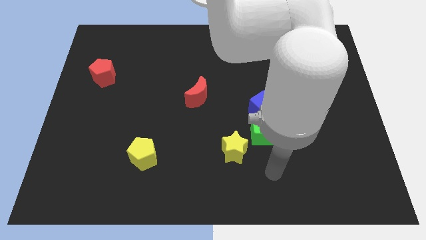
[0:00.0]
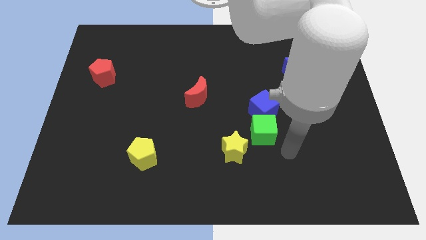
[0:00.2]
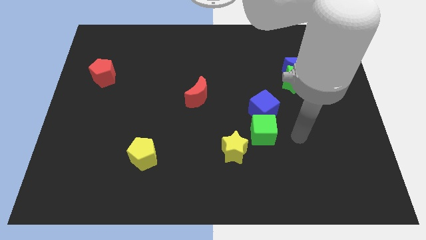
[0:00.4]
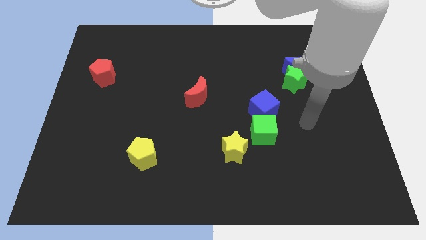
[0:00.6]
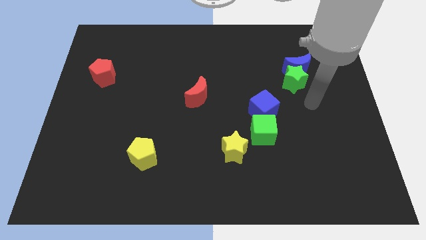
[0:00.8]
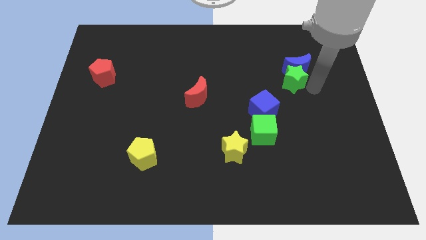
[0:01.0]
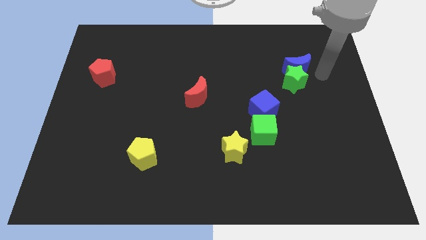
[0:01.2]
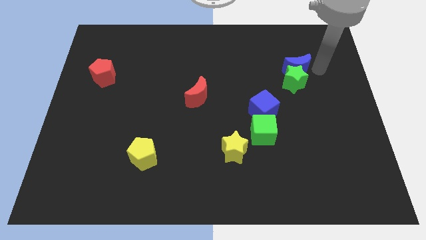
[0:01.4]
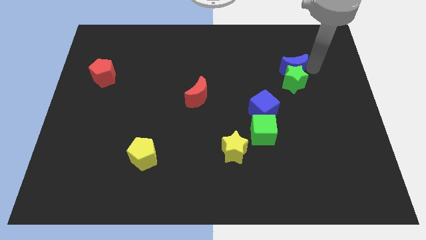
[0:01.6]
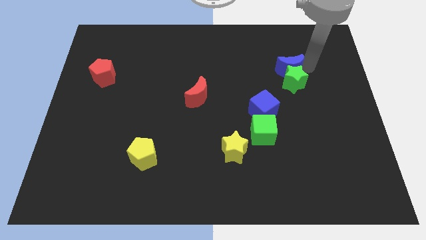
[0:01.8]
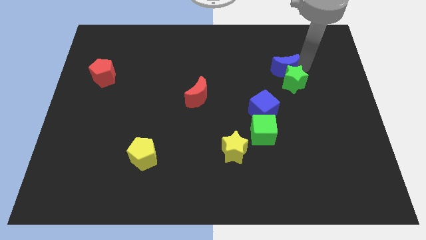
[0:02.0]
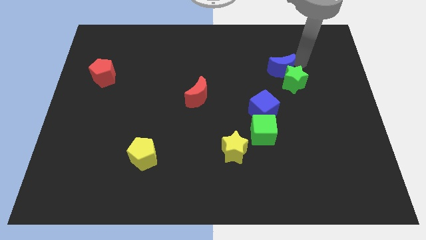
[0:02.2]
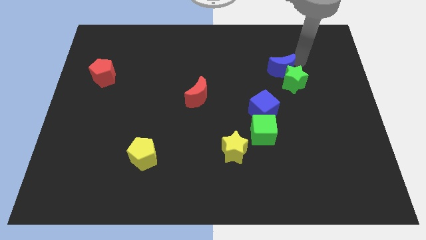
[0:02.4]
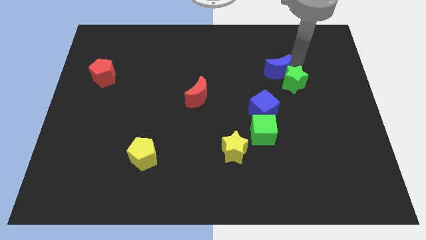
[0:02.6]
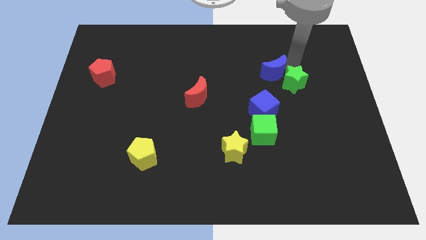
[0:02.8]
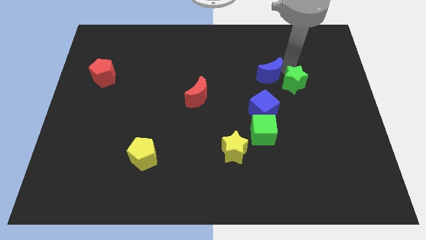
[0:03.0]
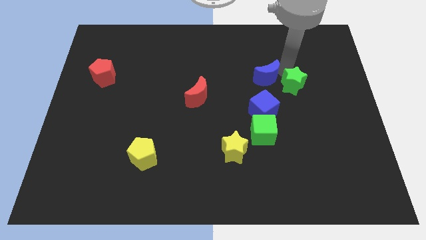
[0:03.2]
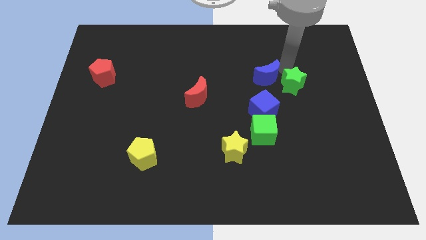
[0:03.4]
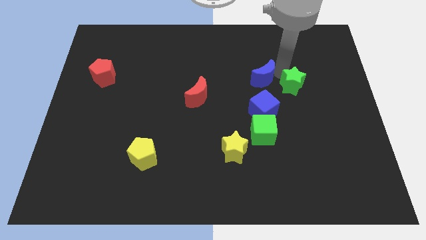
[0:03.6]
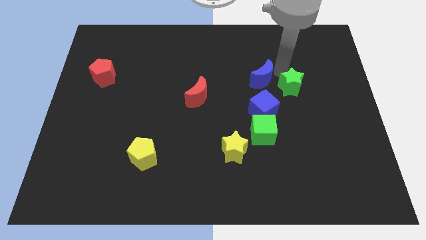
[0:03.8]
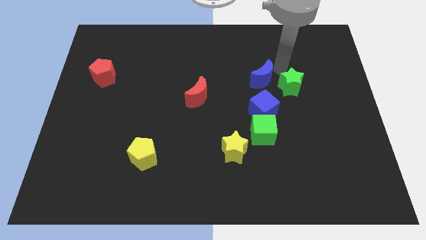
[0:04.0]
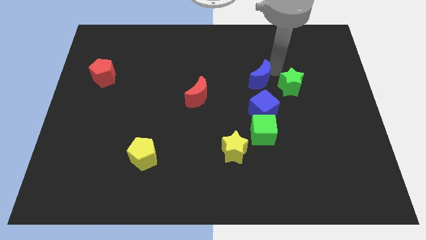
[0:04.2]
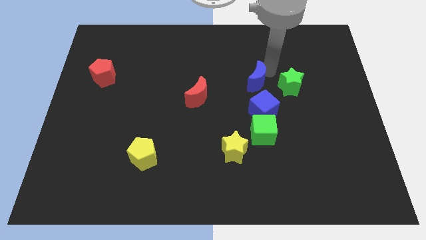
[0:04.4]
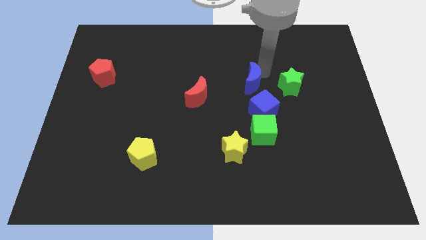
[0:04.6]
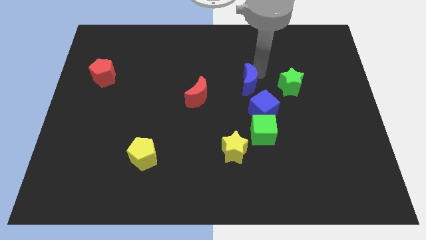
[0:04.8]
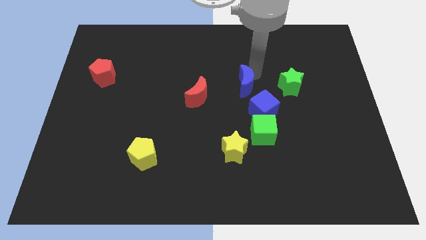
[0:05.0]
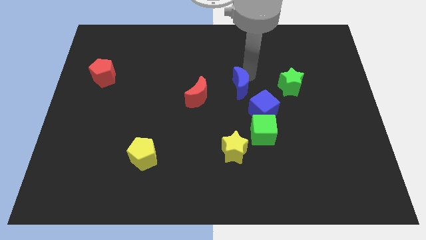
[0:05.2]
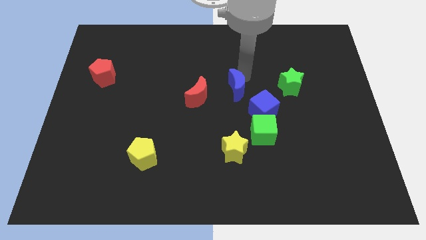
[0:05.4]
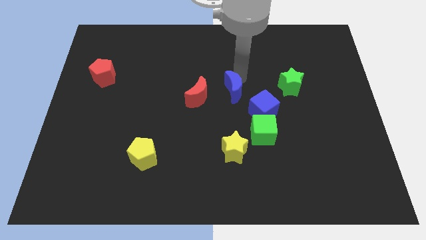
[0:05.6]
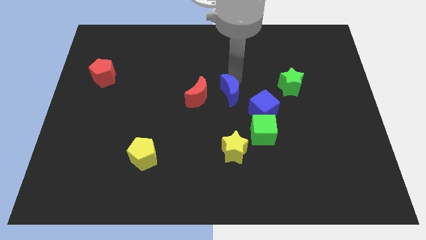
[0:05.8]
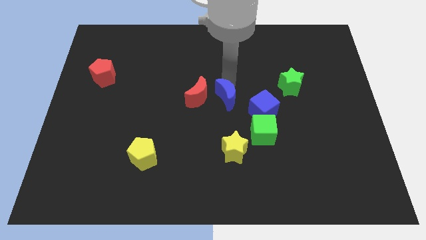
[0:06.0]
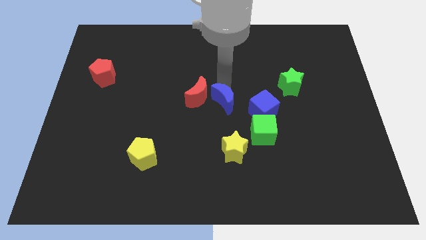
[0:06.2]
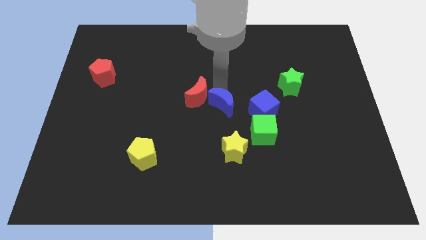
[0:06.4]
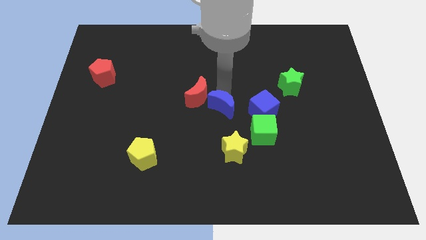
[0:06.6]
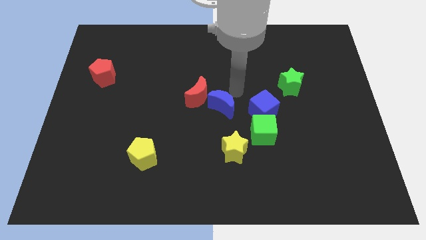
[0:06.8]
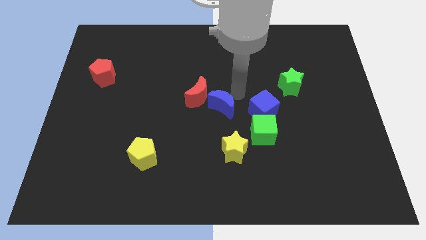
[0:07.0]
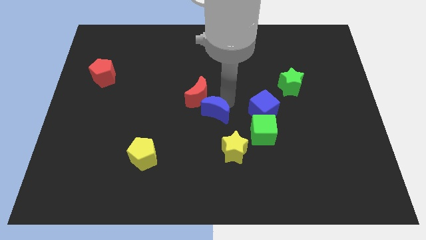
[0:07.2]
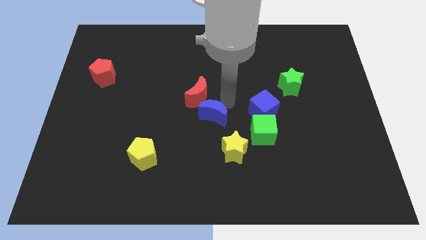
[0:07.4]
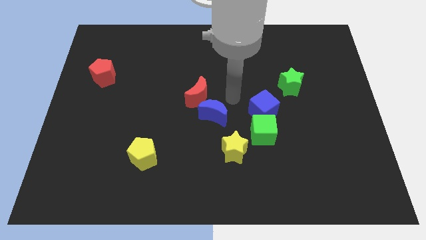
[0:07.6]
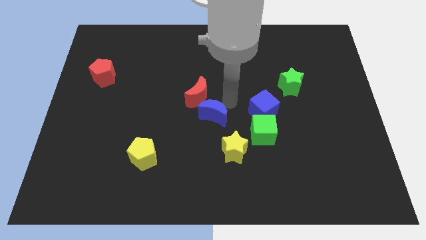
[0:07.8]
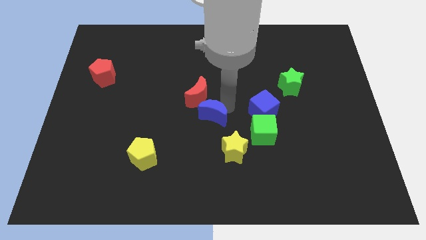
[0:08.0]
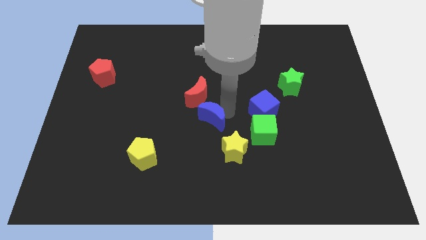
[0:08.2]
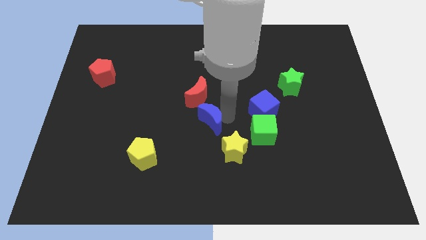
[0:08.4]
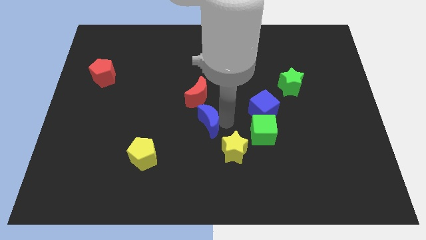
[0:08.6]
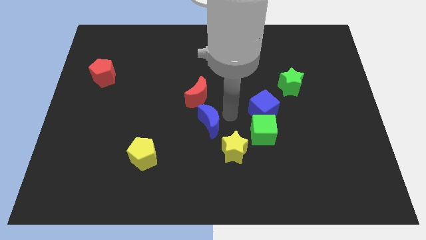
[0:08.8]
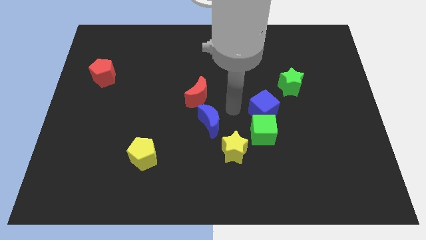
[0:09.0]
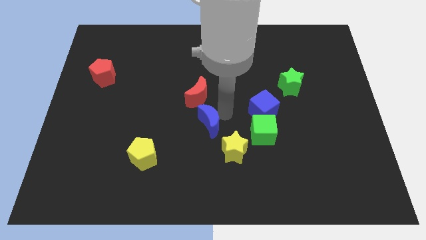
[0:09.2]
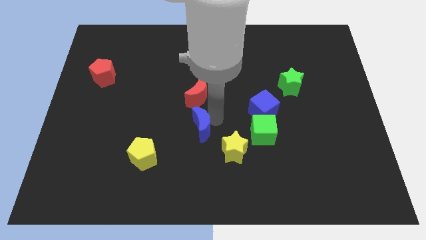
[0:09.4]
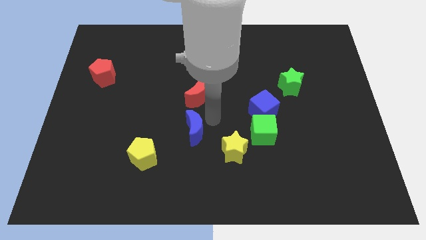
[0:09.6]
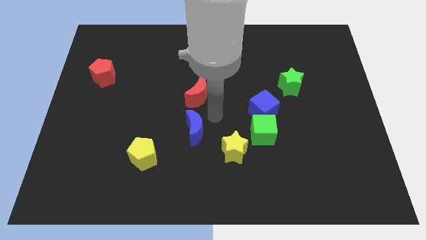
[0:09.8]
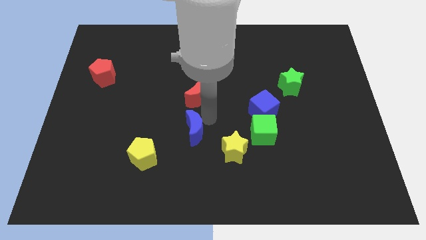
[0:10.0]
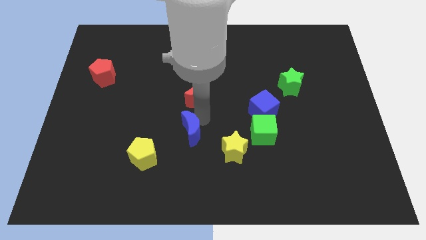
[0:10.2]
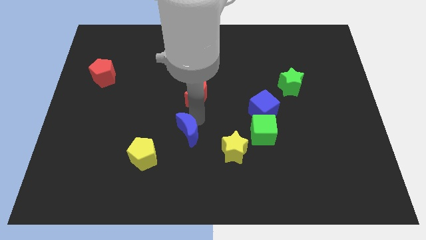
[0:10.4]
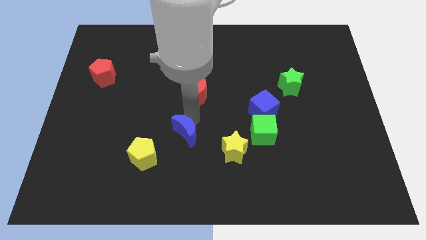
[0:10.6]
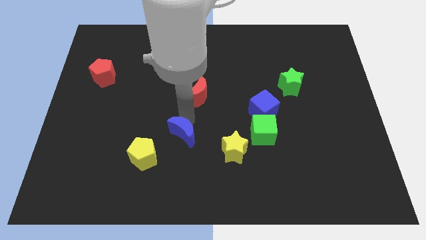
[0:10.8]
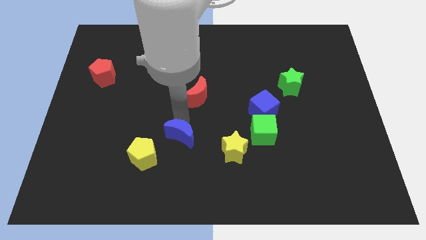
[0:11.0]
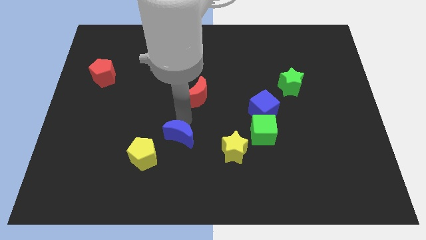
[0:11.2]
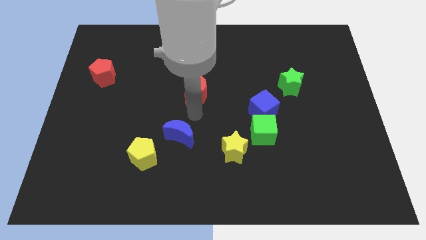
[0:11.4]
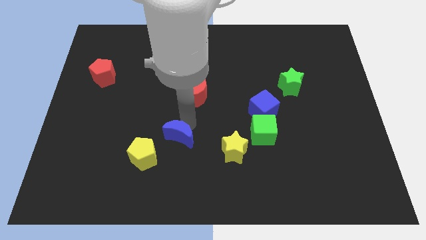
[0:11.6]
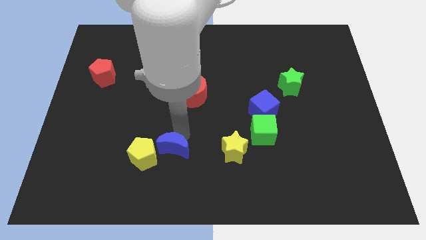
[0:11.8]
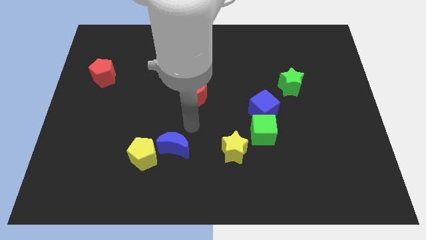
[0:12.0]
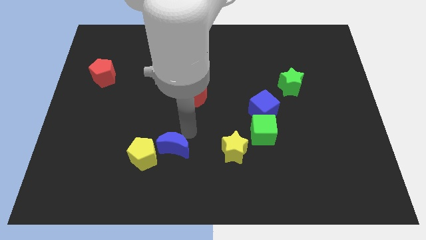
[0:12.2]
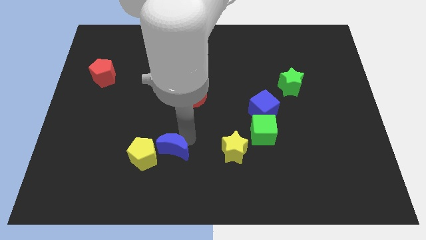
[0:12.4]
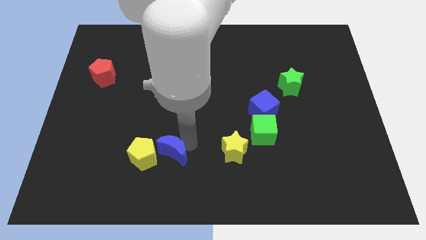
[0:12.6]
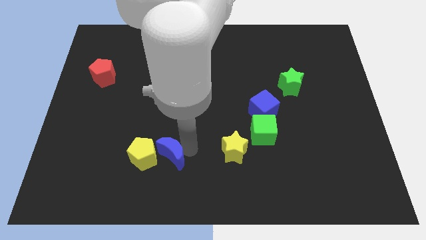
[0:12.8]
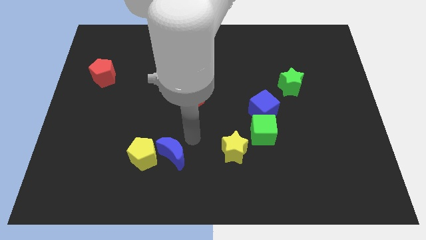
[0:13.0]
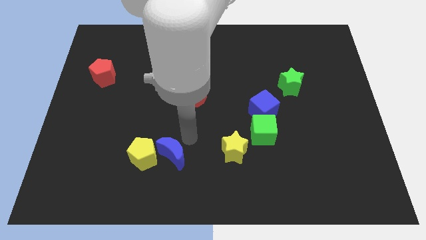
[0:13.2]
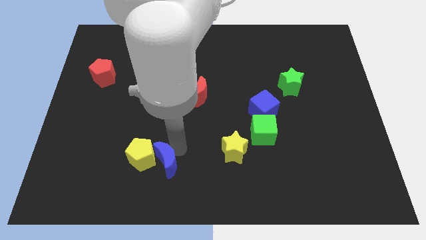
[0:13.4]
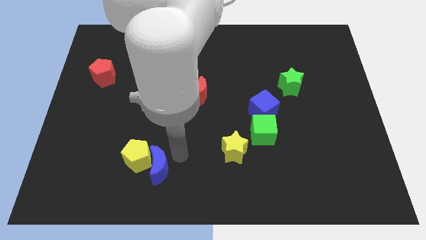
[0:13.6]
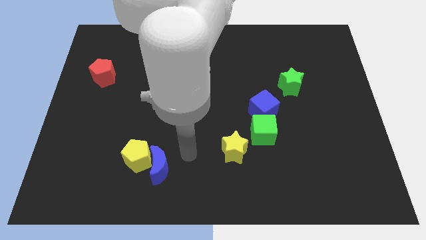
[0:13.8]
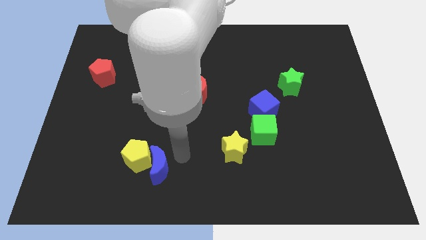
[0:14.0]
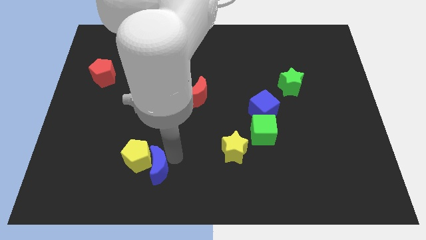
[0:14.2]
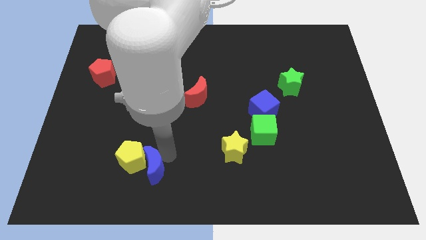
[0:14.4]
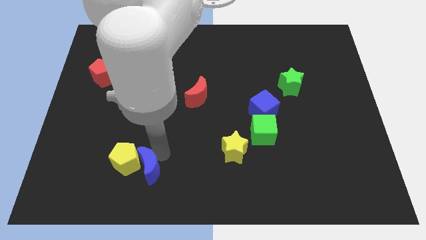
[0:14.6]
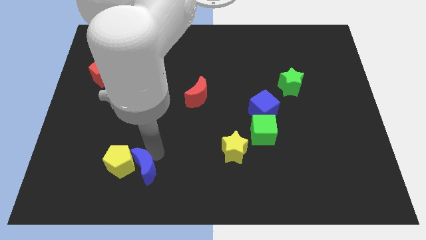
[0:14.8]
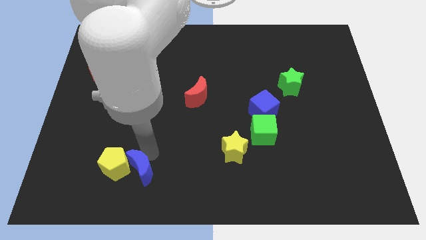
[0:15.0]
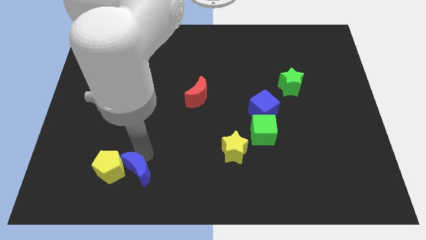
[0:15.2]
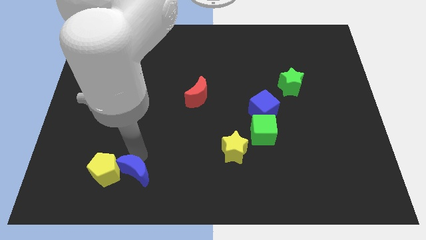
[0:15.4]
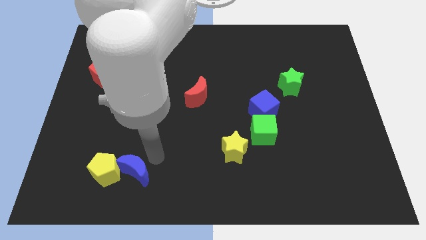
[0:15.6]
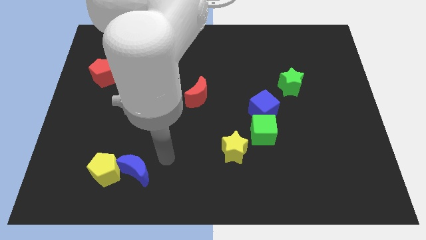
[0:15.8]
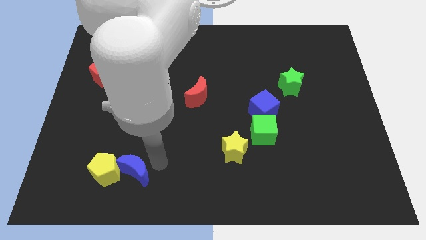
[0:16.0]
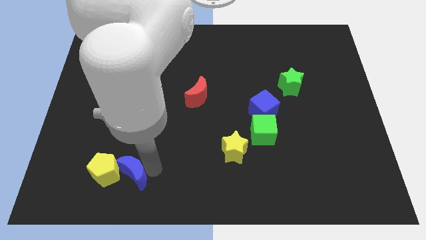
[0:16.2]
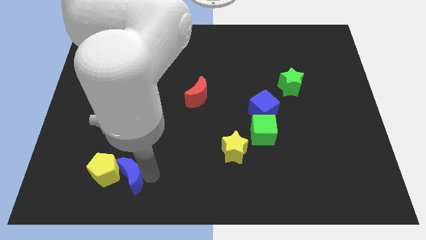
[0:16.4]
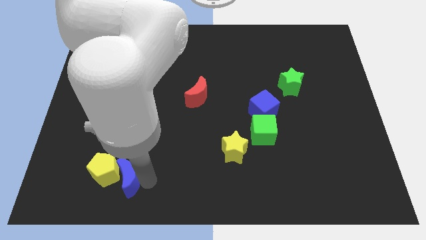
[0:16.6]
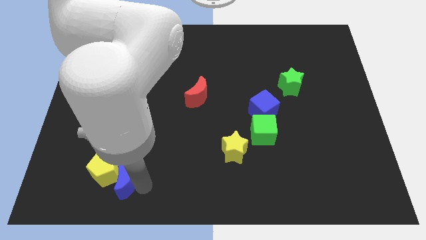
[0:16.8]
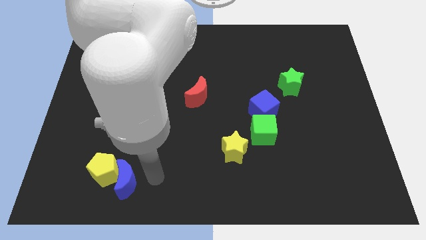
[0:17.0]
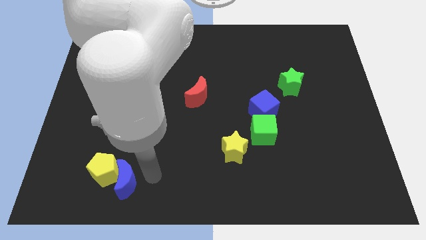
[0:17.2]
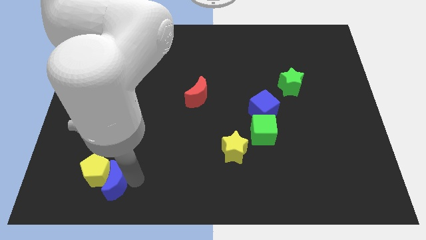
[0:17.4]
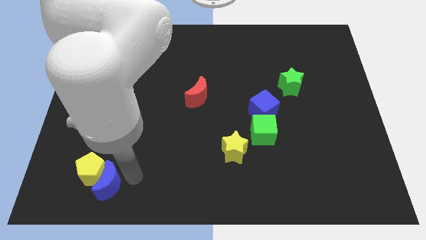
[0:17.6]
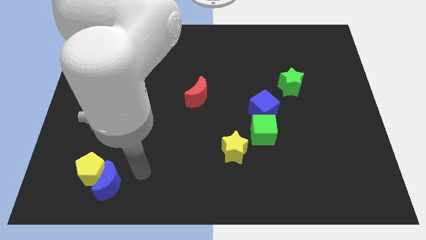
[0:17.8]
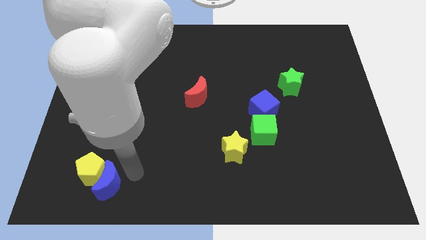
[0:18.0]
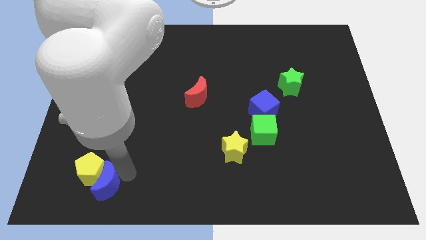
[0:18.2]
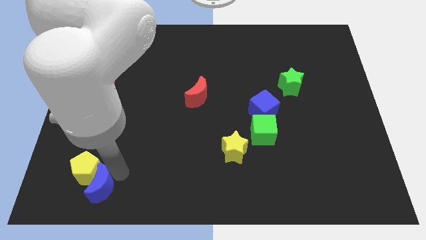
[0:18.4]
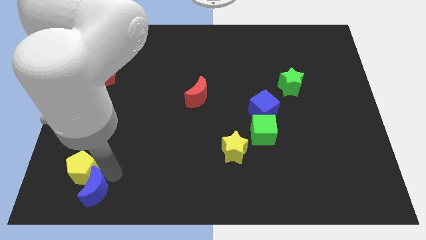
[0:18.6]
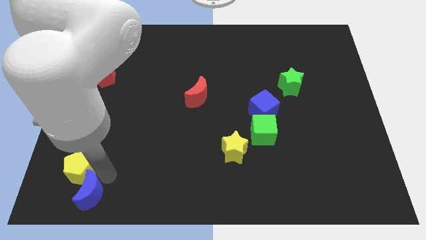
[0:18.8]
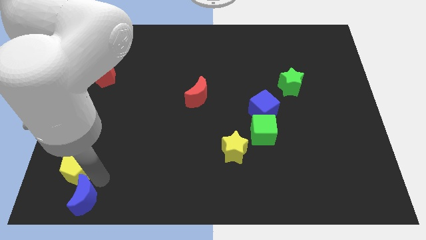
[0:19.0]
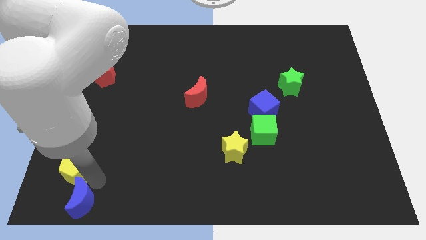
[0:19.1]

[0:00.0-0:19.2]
move the blue moon to the bottom left of the board
